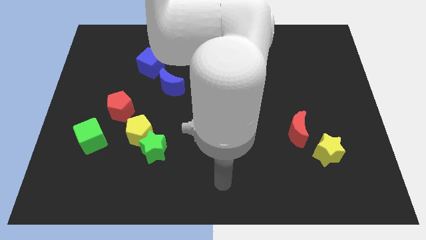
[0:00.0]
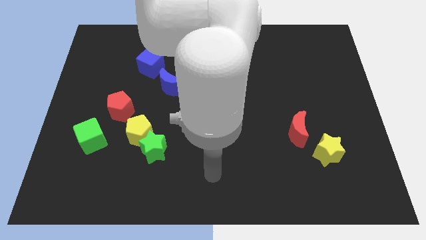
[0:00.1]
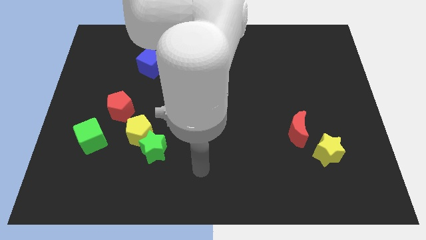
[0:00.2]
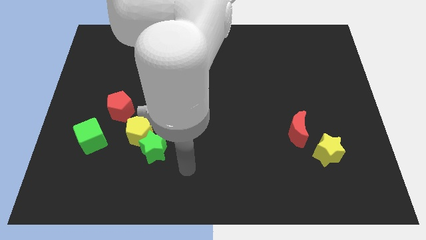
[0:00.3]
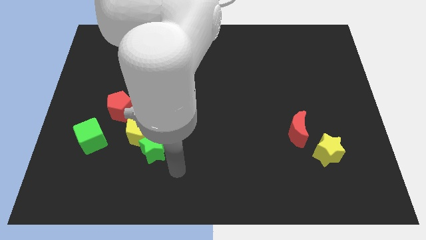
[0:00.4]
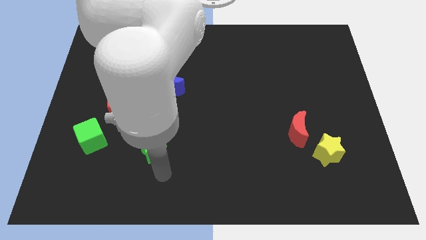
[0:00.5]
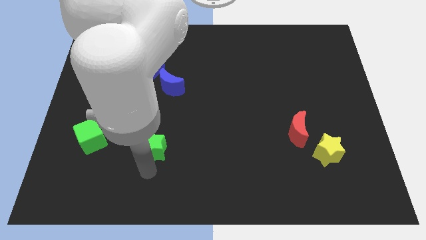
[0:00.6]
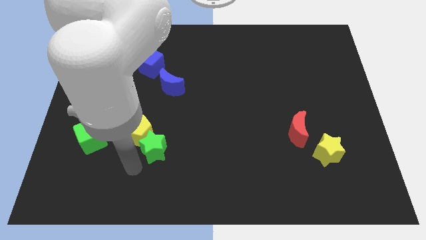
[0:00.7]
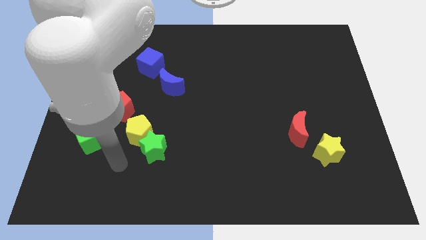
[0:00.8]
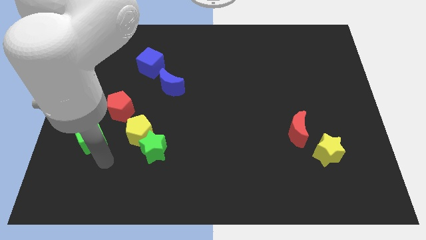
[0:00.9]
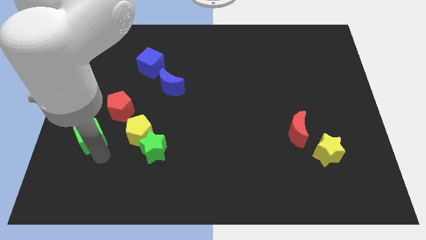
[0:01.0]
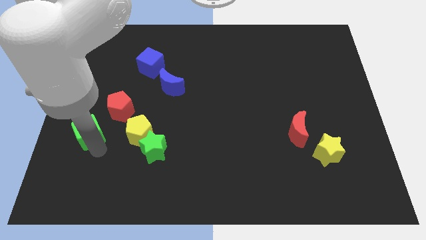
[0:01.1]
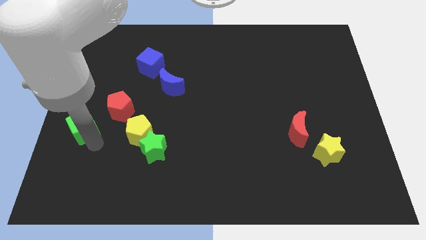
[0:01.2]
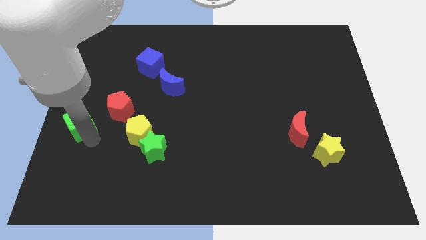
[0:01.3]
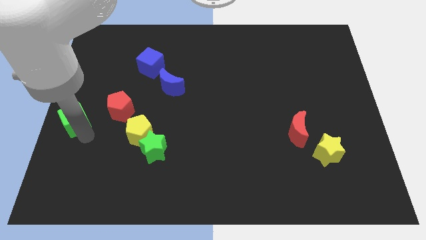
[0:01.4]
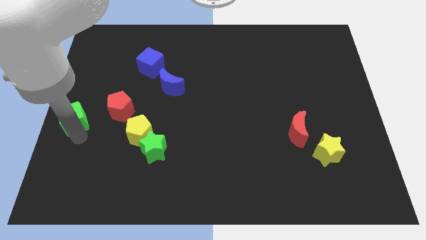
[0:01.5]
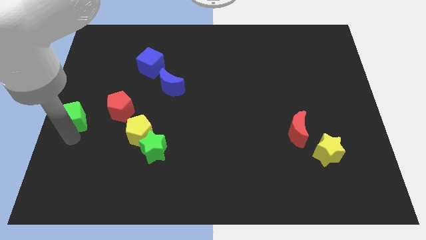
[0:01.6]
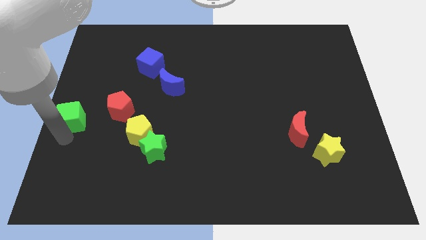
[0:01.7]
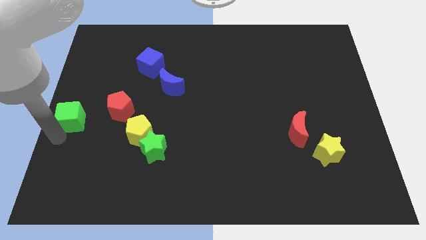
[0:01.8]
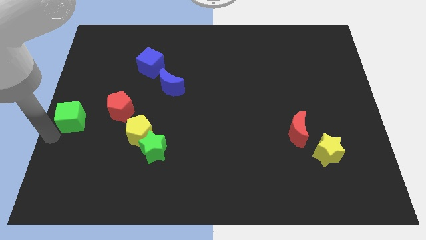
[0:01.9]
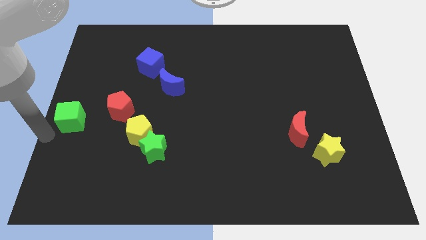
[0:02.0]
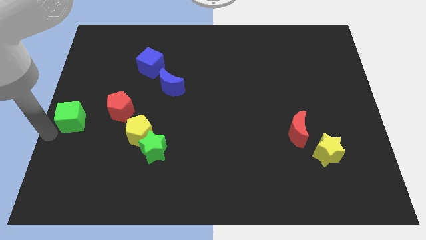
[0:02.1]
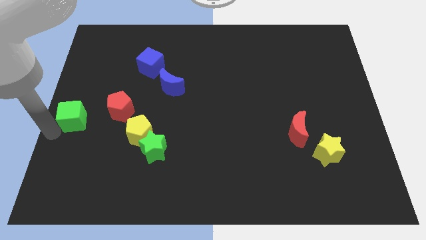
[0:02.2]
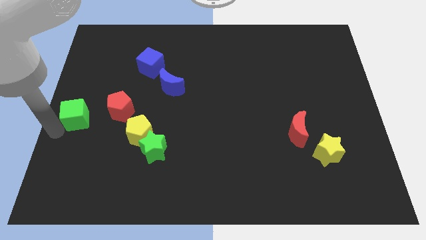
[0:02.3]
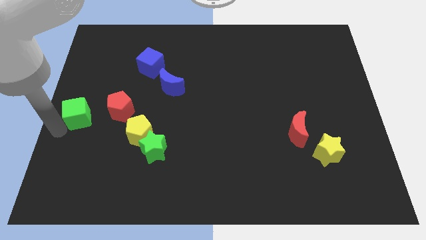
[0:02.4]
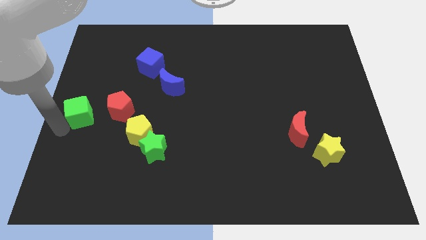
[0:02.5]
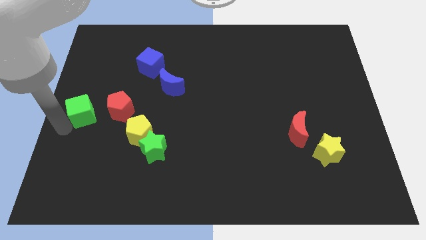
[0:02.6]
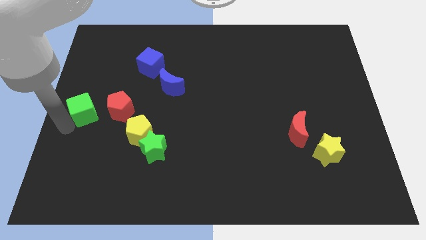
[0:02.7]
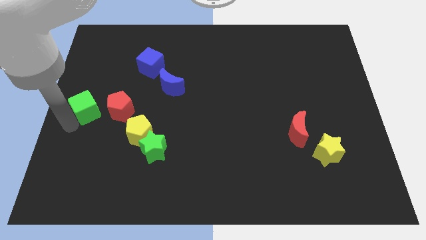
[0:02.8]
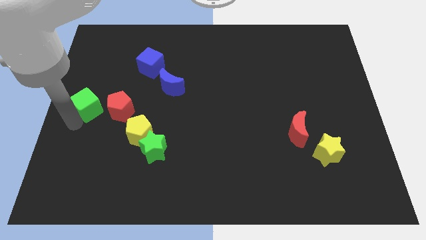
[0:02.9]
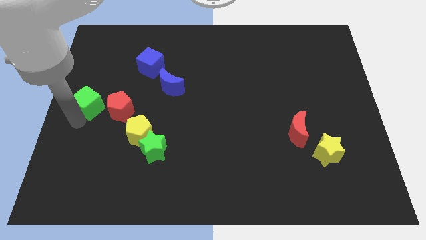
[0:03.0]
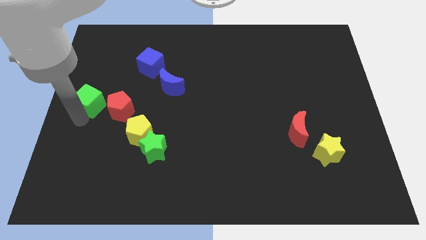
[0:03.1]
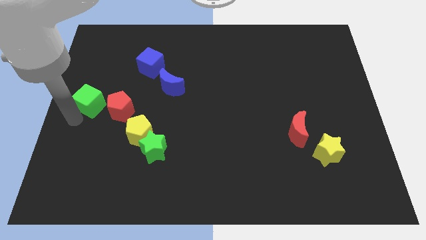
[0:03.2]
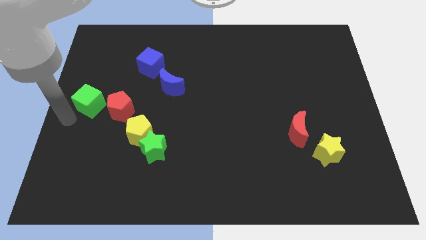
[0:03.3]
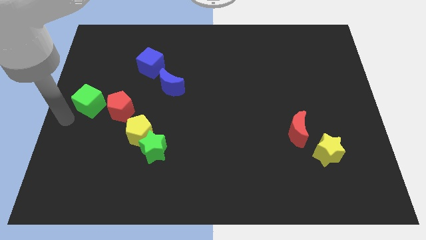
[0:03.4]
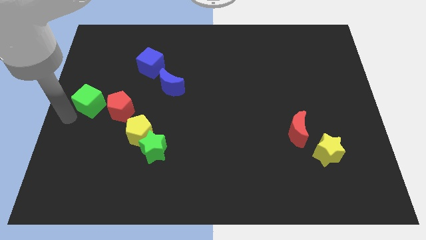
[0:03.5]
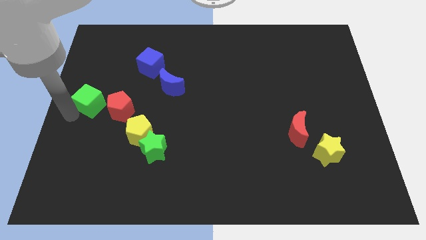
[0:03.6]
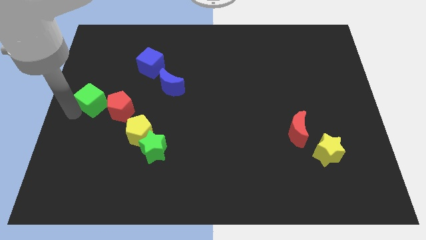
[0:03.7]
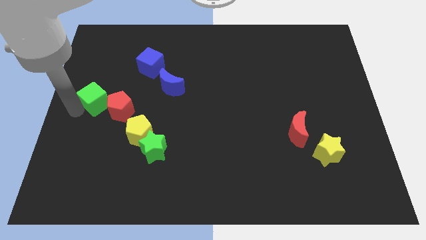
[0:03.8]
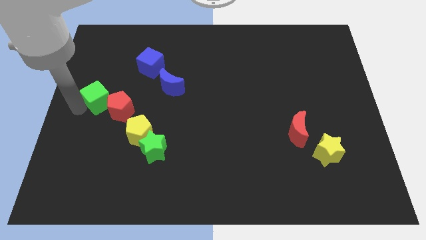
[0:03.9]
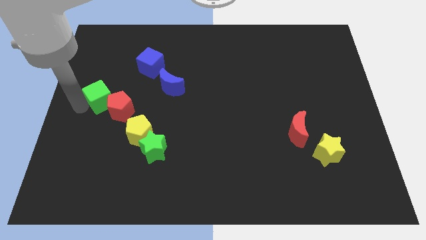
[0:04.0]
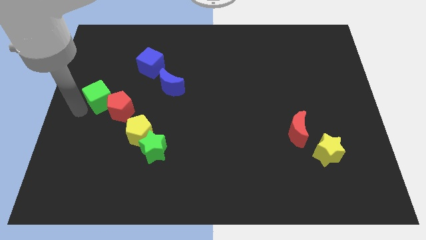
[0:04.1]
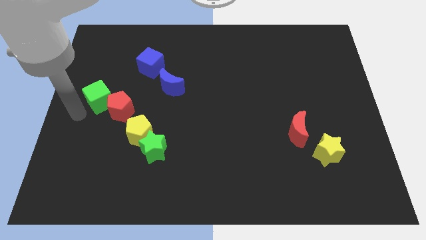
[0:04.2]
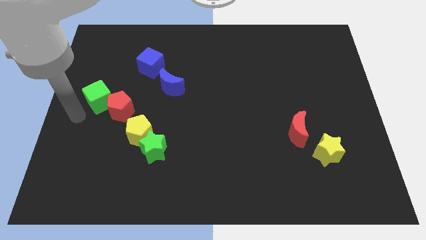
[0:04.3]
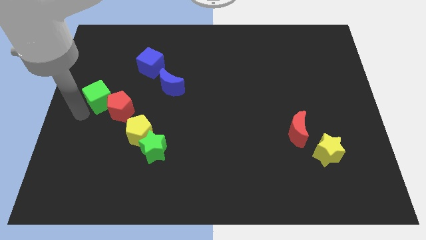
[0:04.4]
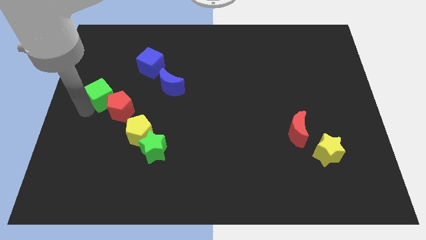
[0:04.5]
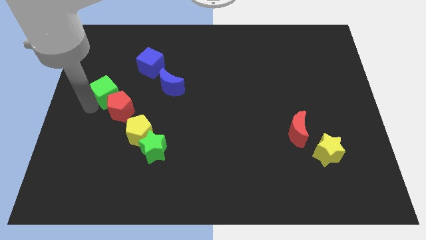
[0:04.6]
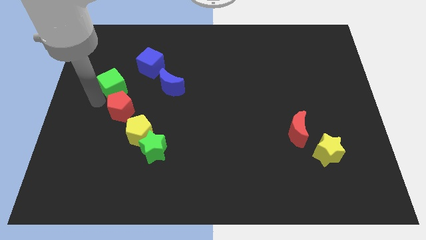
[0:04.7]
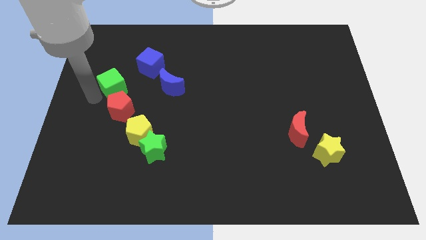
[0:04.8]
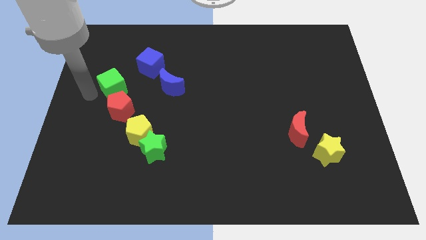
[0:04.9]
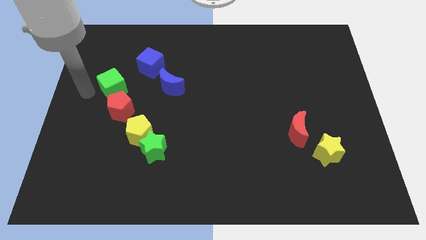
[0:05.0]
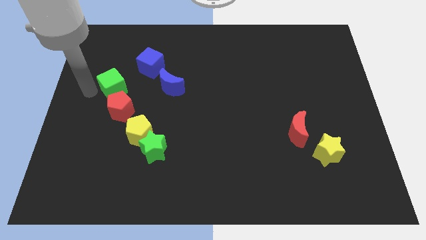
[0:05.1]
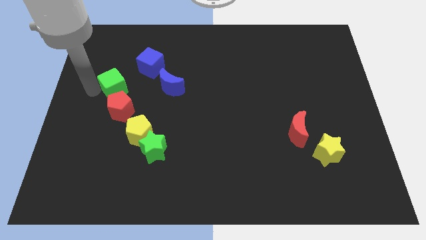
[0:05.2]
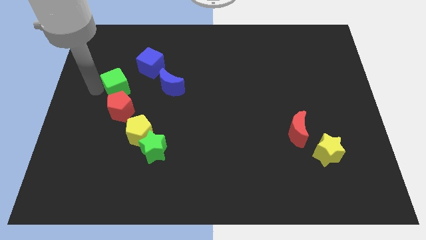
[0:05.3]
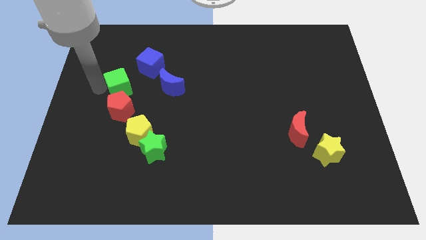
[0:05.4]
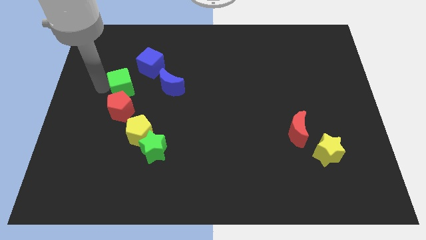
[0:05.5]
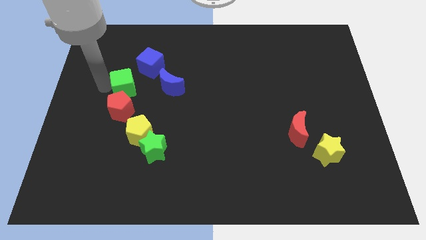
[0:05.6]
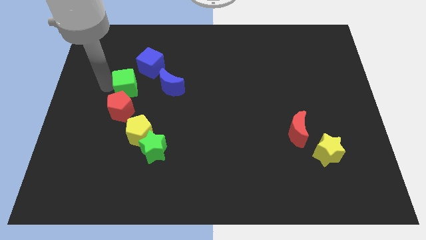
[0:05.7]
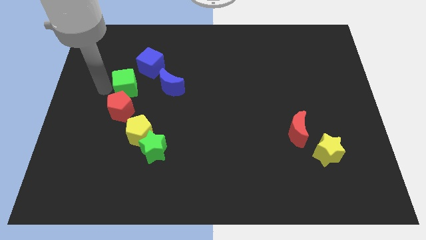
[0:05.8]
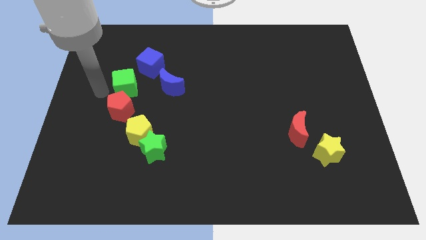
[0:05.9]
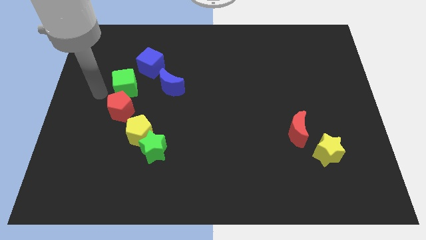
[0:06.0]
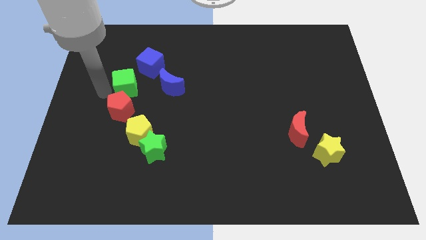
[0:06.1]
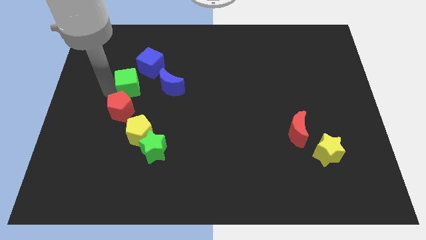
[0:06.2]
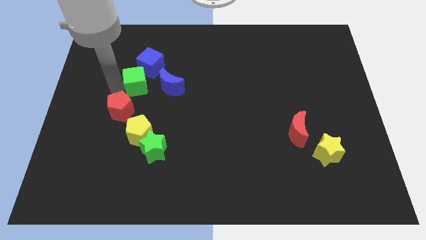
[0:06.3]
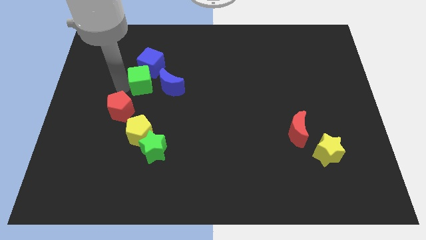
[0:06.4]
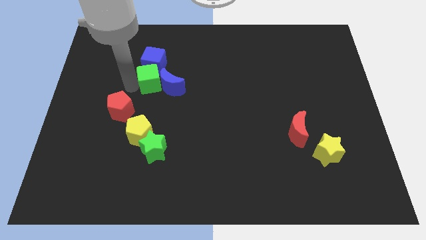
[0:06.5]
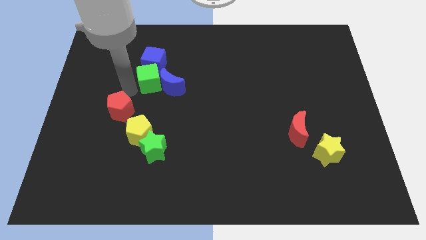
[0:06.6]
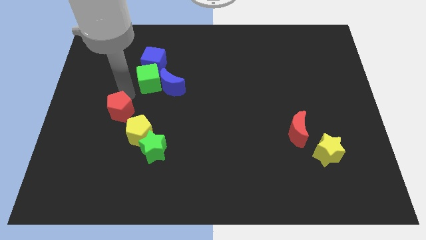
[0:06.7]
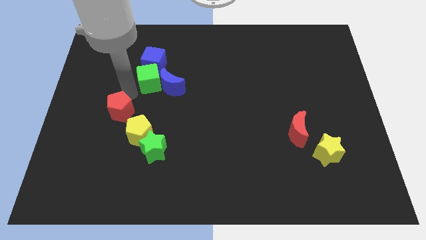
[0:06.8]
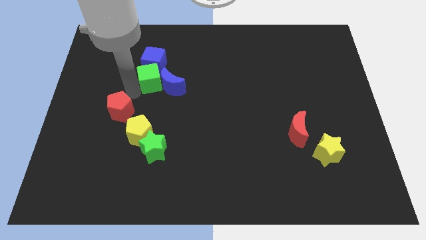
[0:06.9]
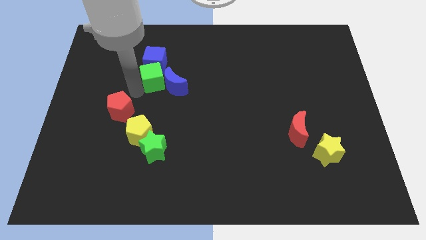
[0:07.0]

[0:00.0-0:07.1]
move the green cube upwards and to the right

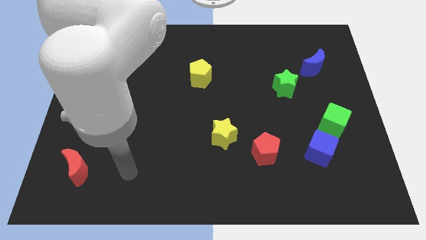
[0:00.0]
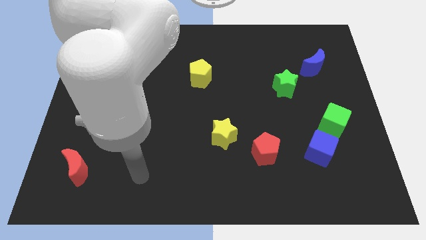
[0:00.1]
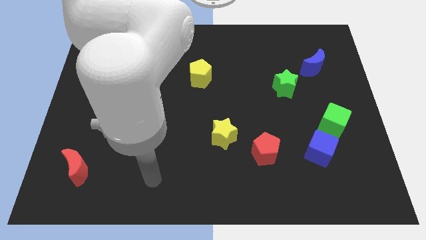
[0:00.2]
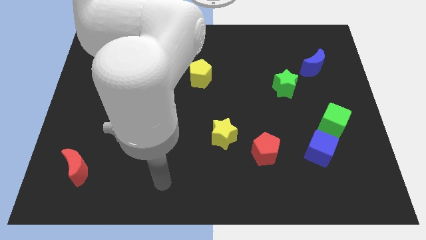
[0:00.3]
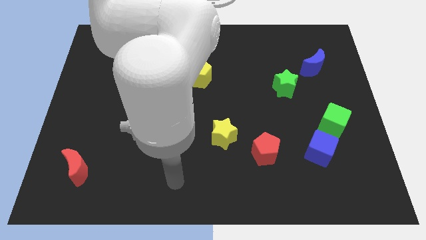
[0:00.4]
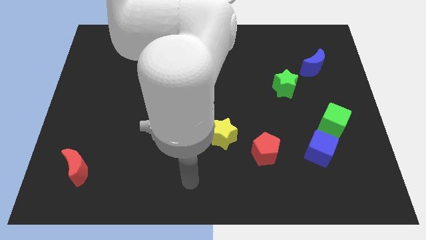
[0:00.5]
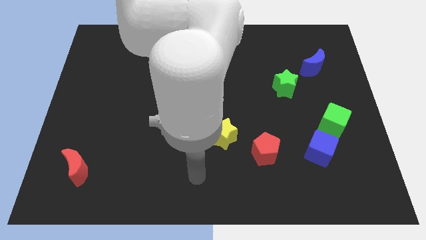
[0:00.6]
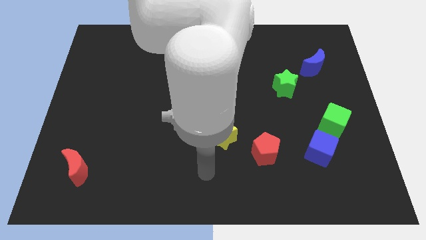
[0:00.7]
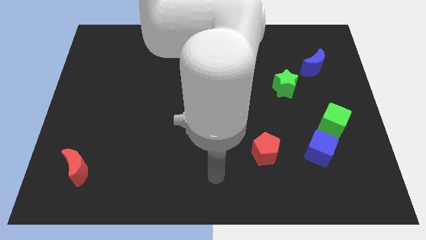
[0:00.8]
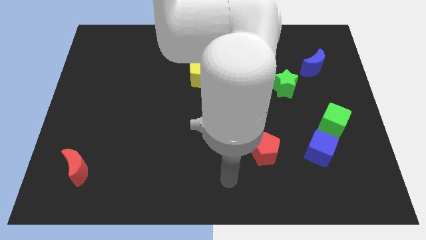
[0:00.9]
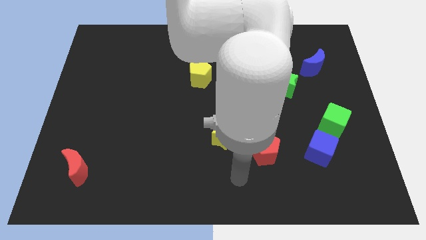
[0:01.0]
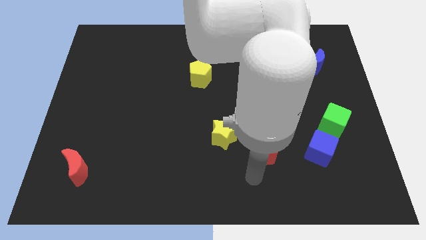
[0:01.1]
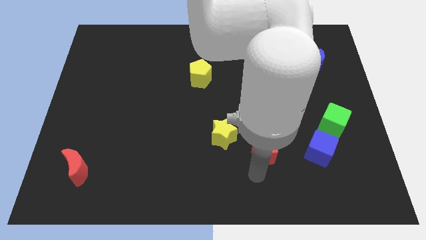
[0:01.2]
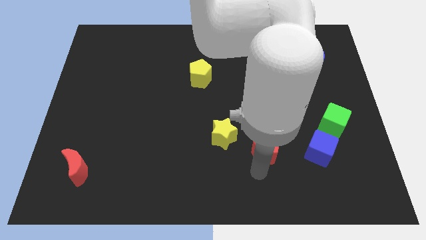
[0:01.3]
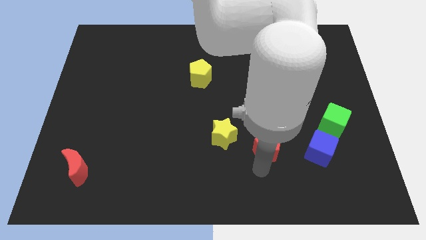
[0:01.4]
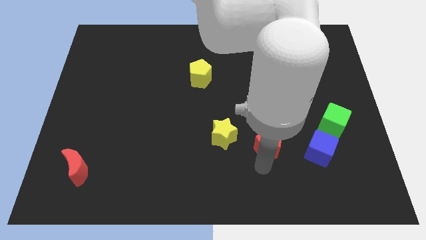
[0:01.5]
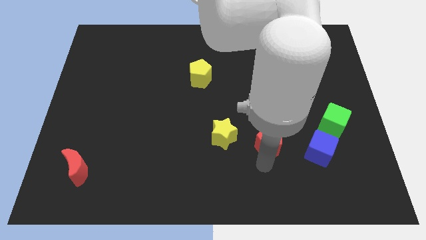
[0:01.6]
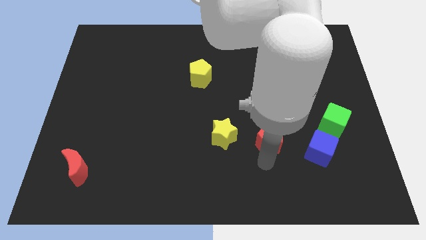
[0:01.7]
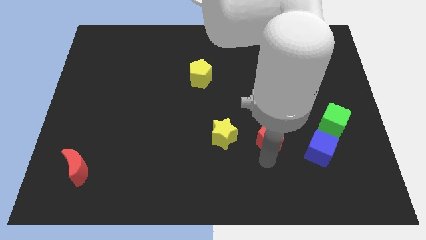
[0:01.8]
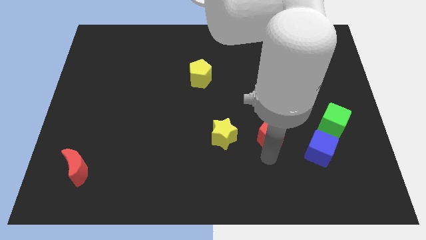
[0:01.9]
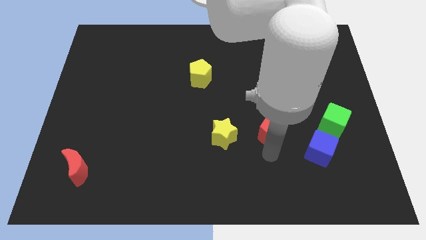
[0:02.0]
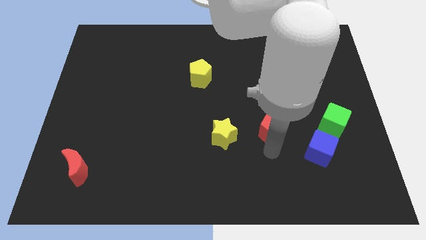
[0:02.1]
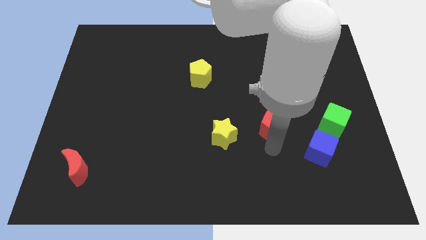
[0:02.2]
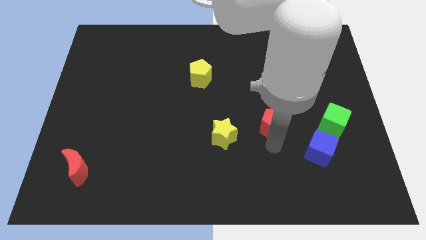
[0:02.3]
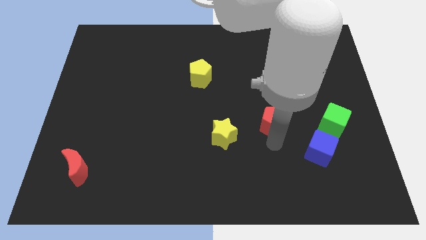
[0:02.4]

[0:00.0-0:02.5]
push the red pentagon somewhat upwards
